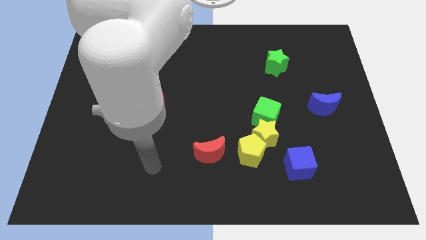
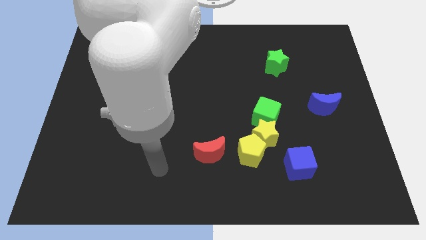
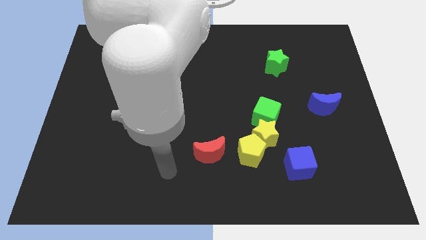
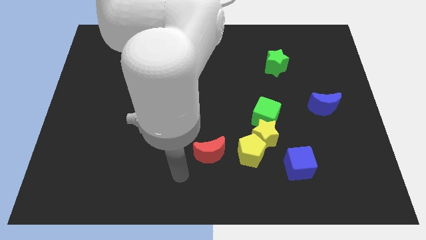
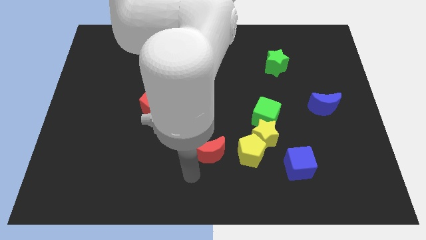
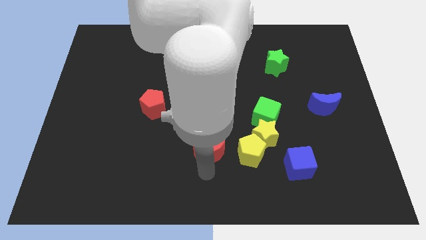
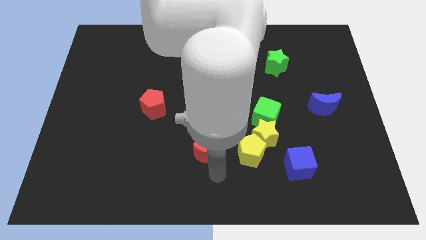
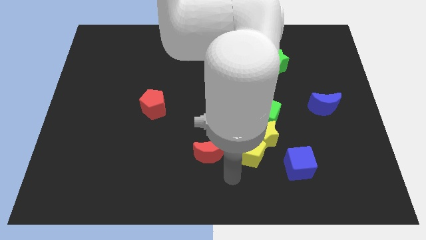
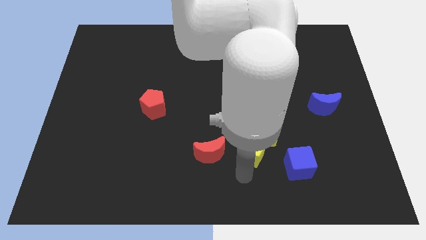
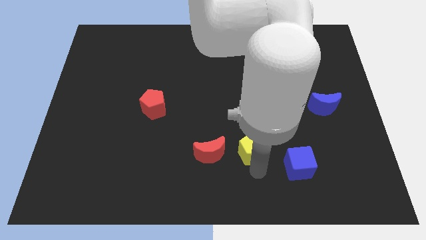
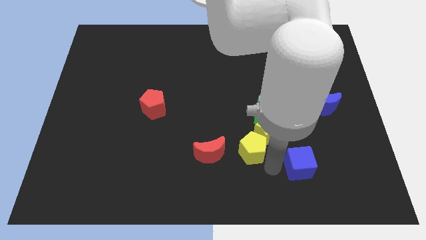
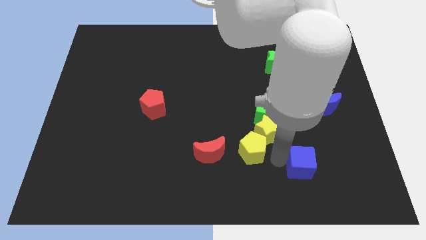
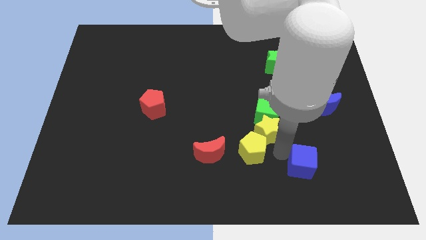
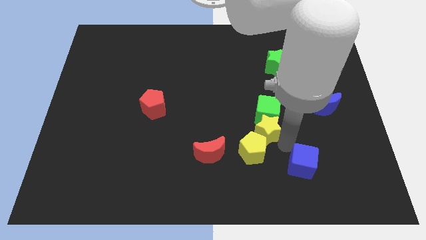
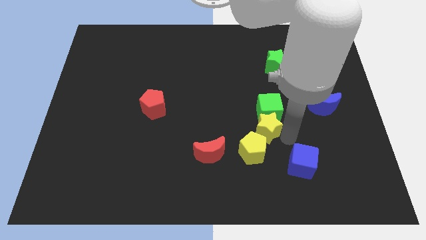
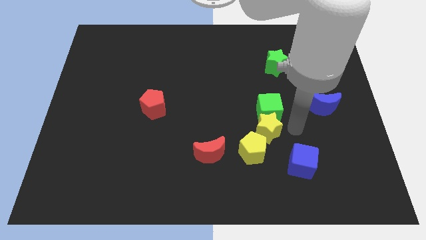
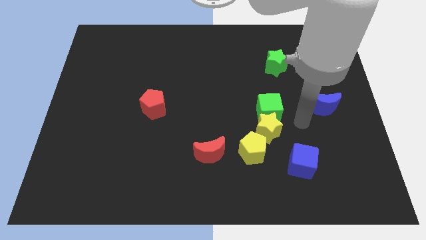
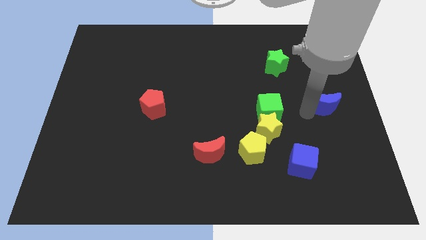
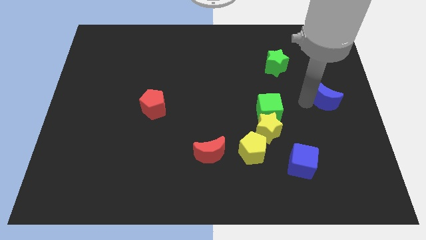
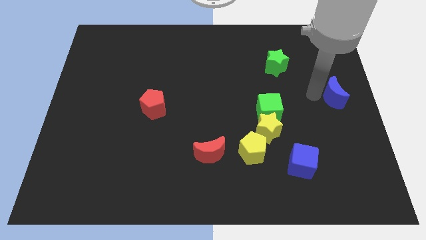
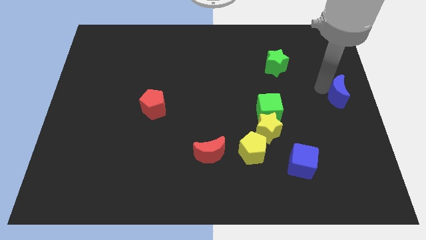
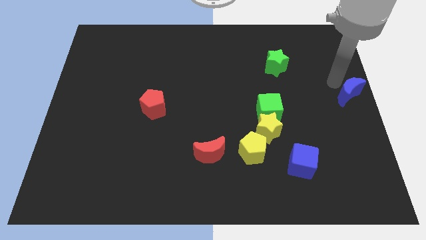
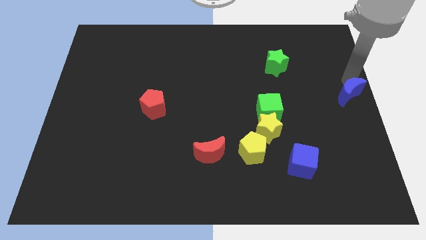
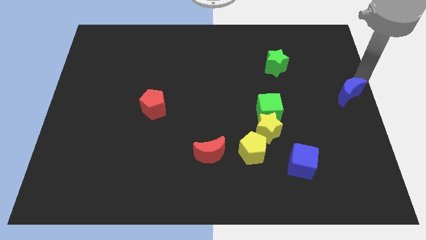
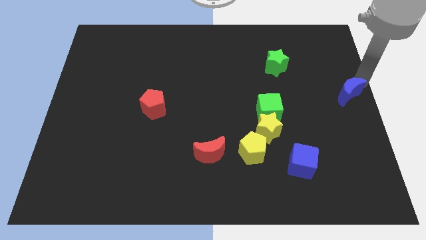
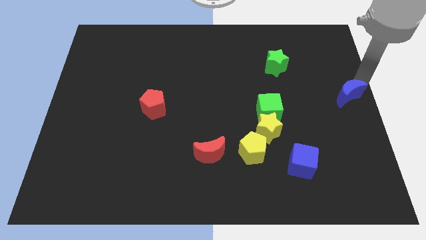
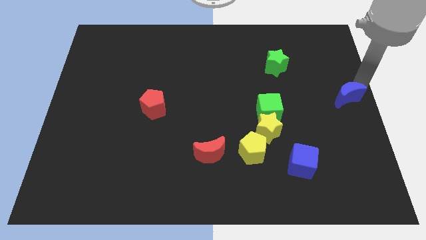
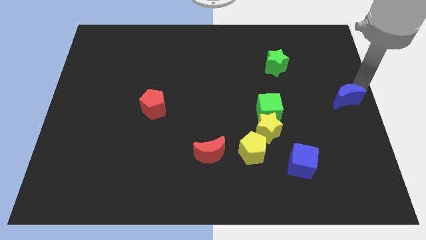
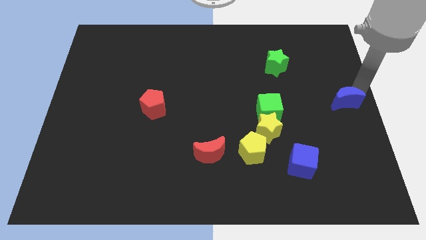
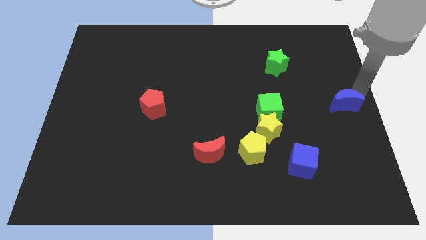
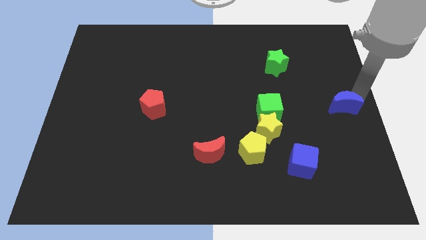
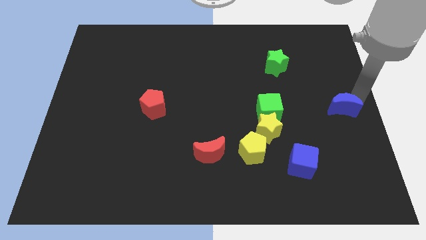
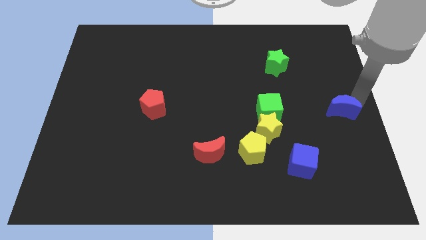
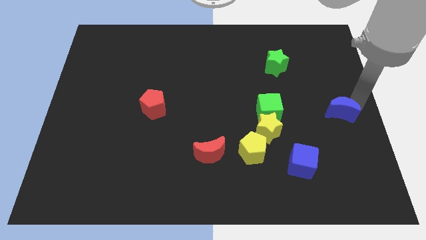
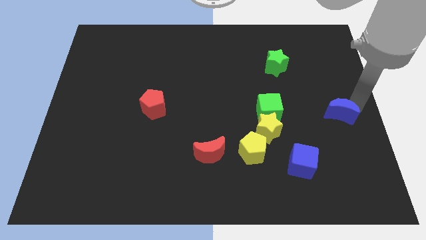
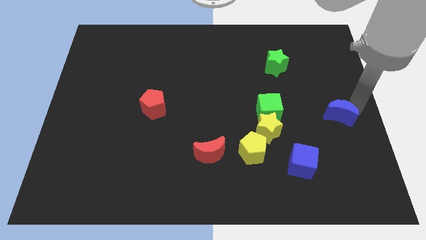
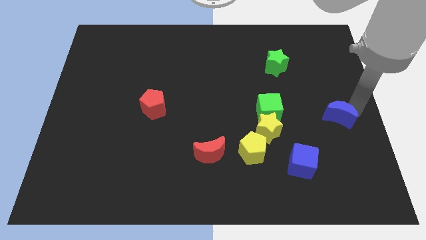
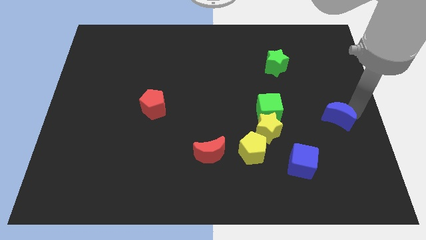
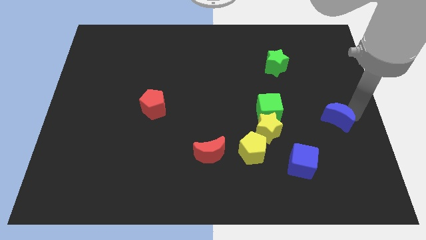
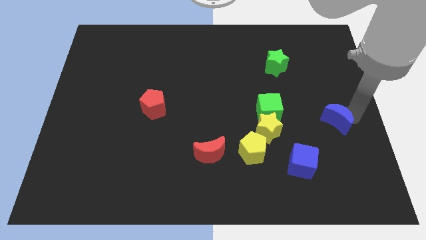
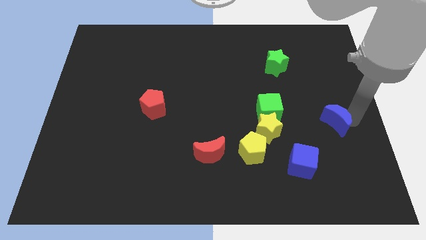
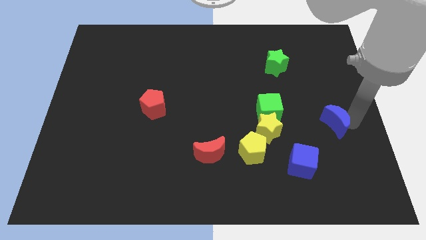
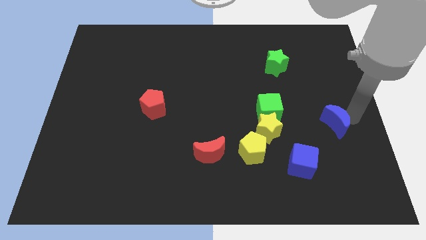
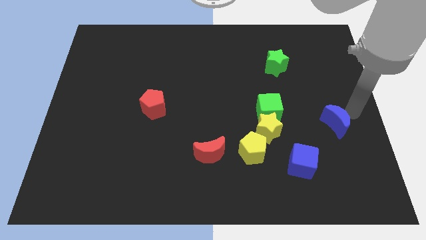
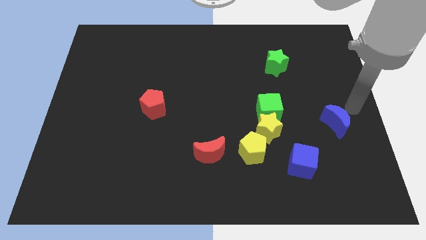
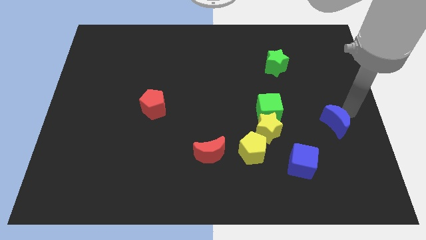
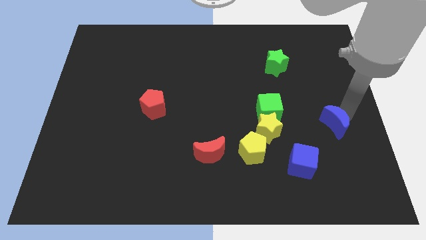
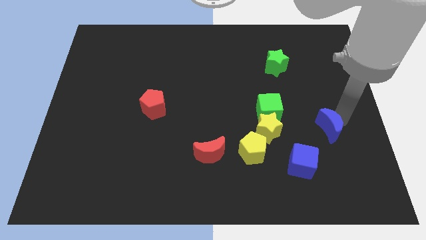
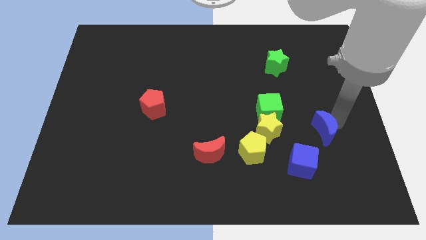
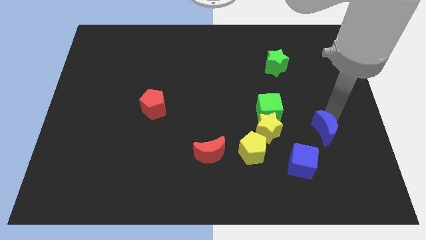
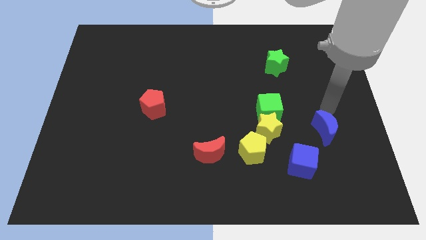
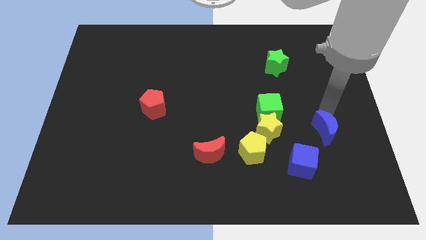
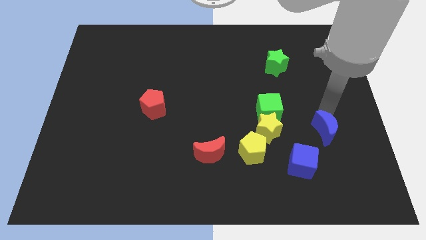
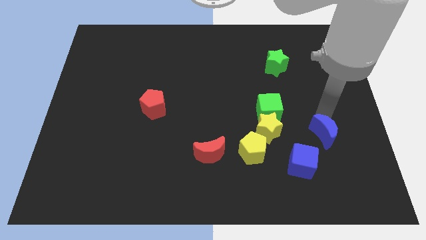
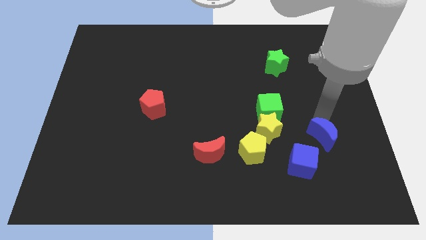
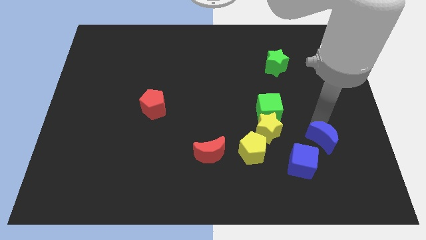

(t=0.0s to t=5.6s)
slightly push the blue moon down and to the left diagonally

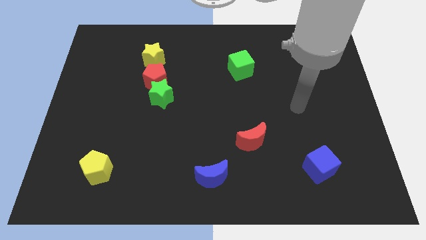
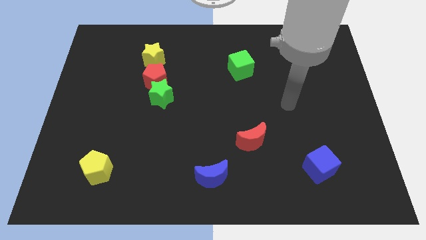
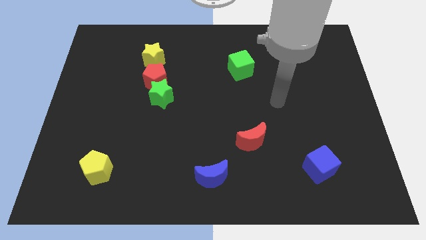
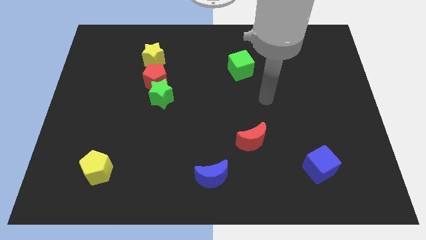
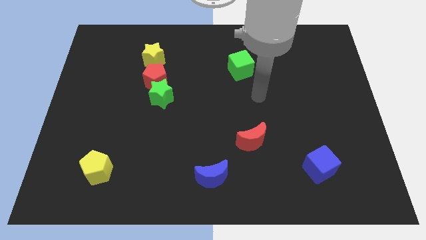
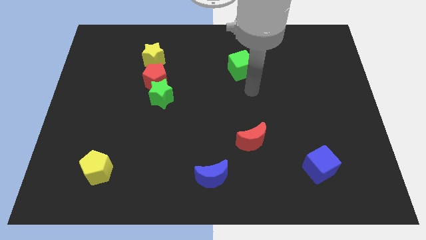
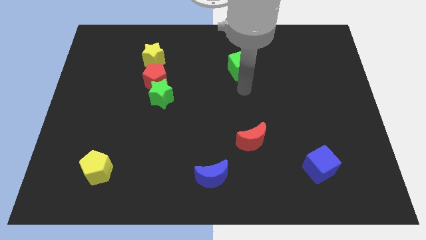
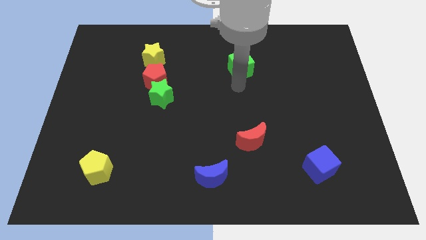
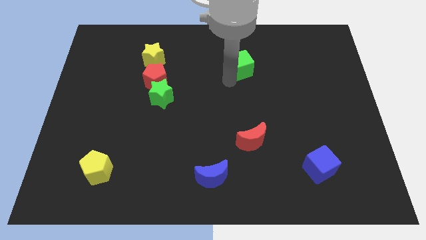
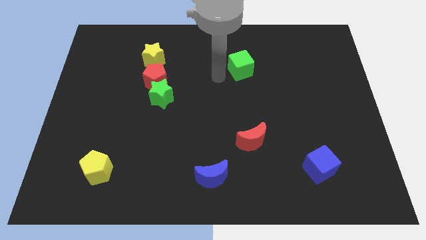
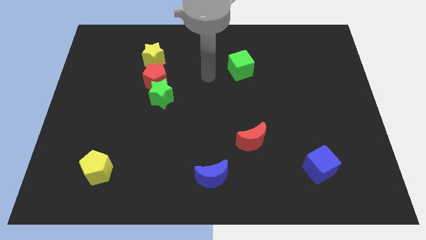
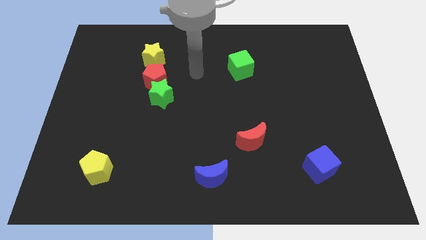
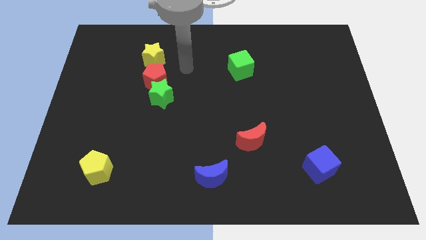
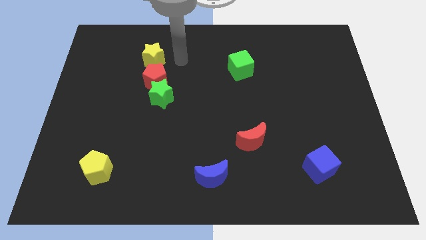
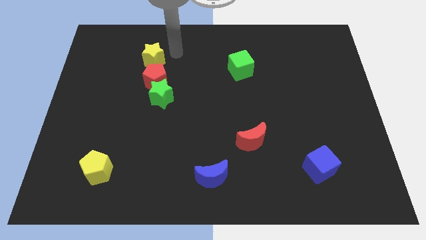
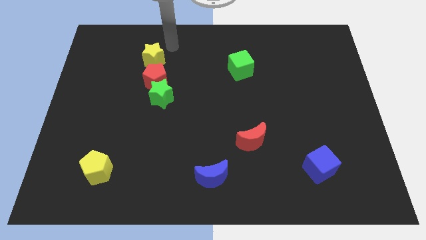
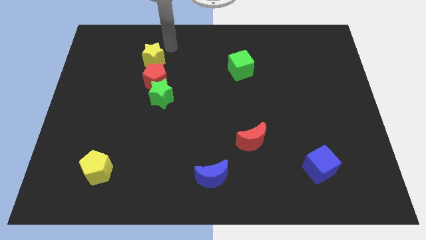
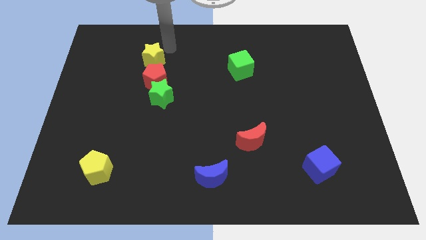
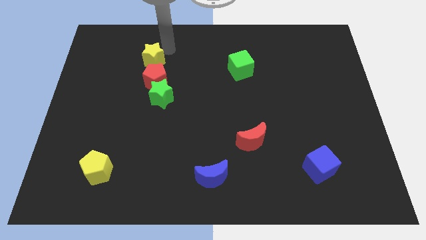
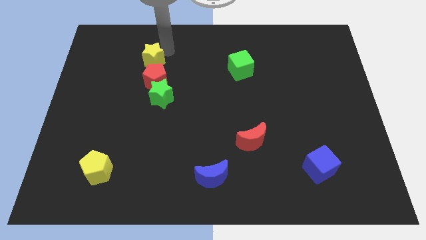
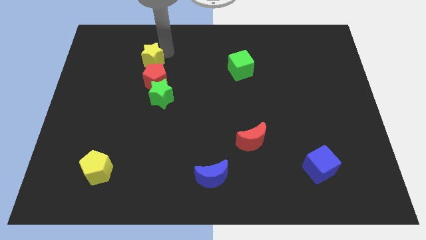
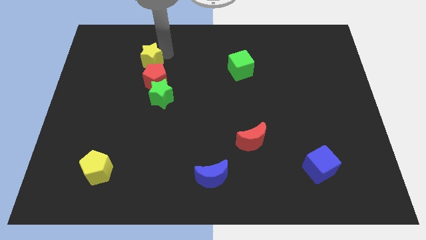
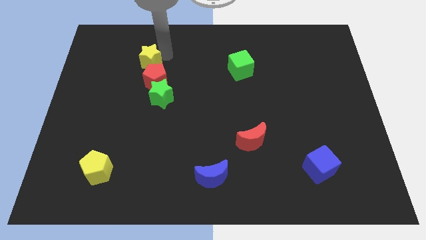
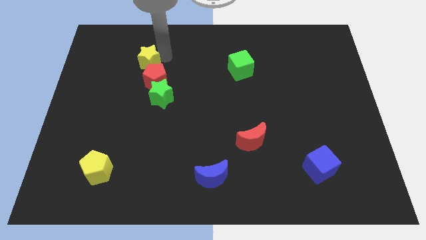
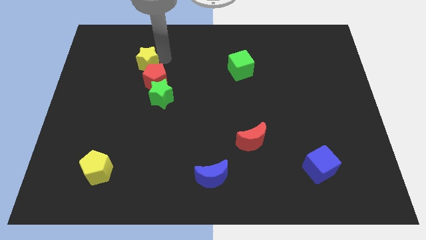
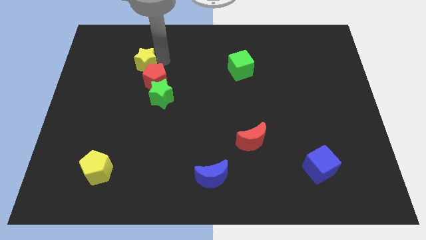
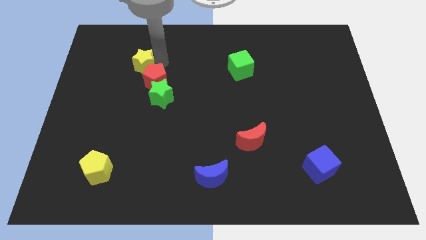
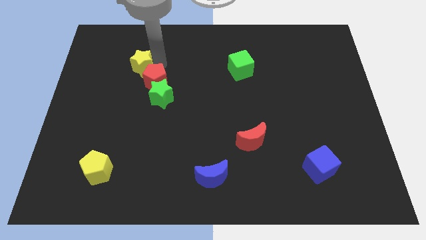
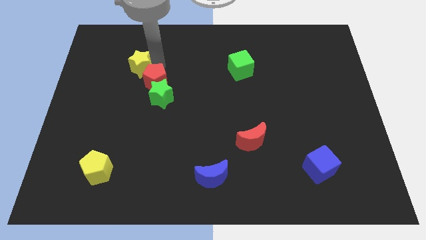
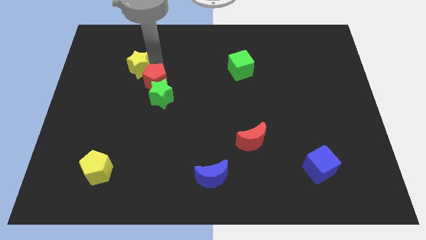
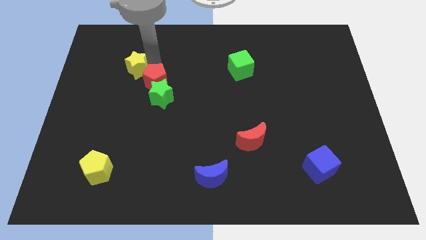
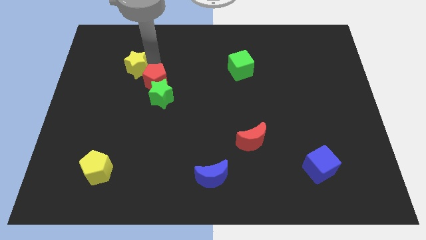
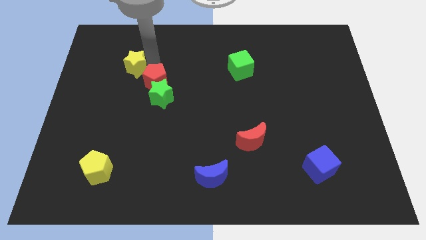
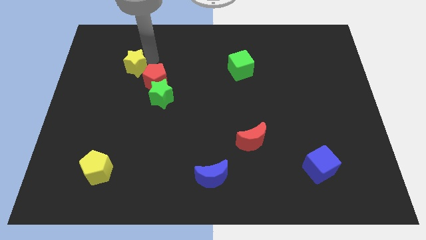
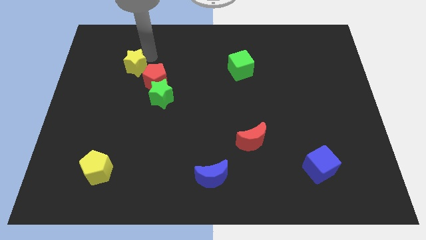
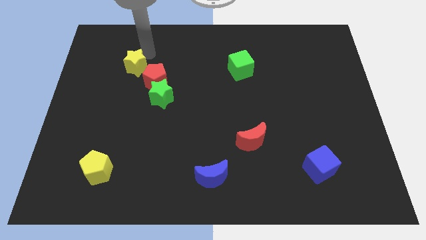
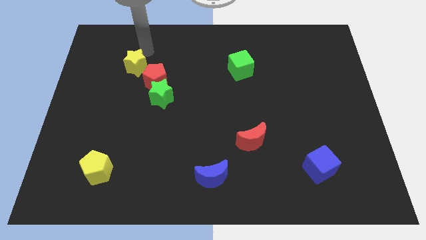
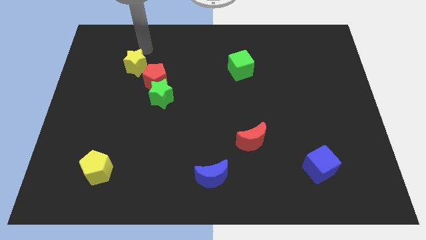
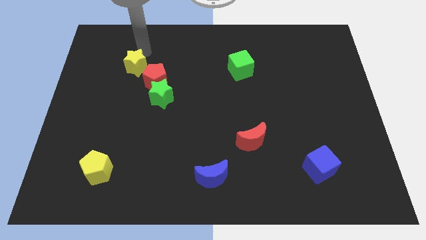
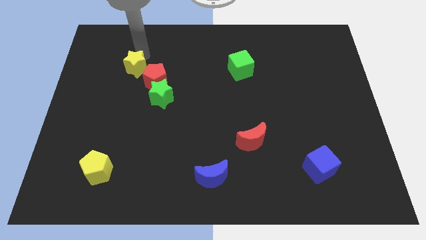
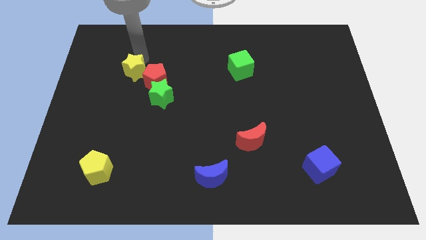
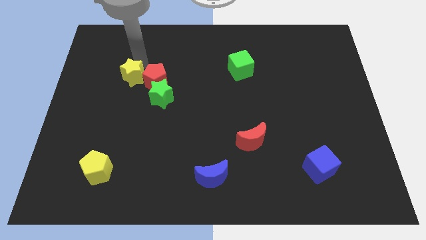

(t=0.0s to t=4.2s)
move the yellow star a bit downwards and to the left diagonally
